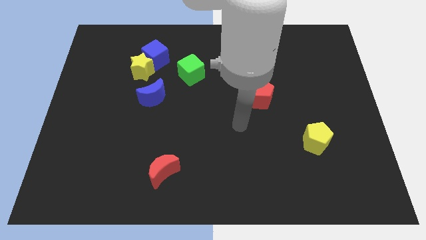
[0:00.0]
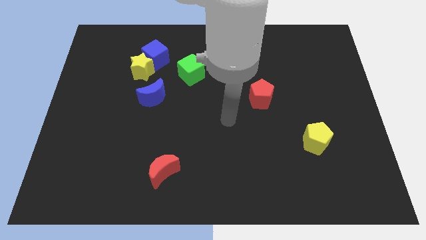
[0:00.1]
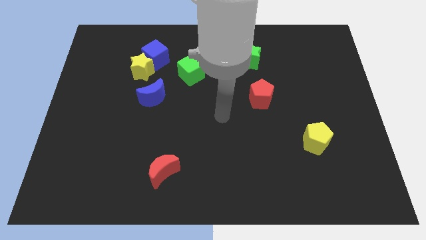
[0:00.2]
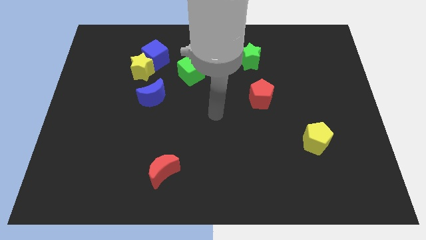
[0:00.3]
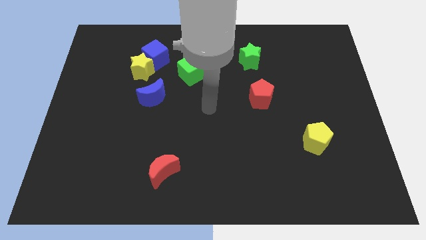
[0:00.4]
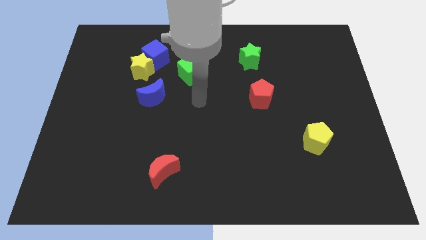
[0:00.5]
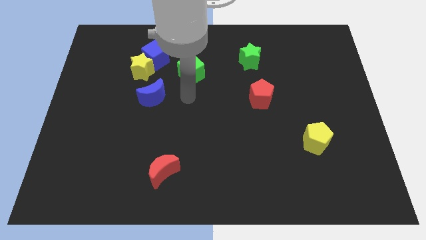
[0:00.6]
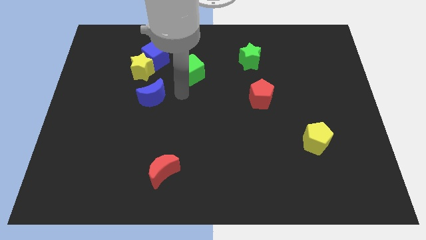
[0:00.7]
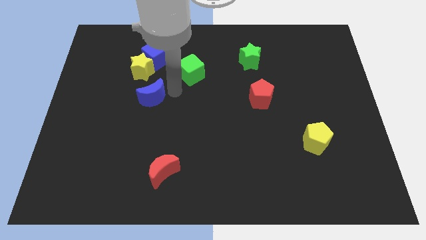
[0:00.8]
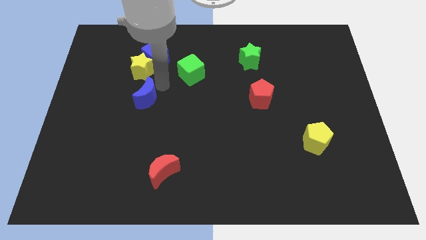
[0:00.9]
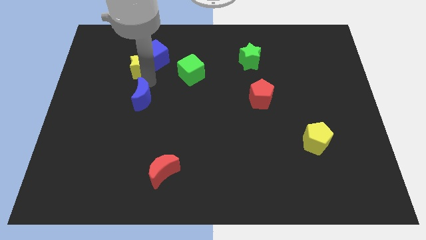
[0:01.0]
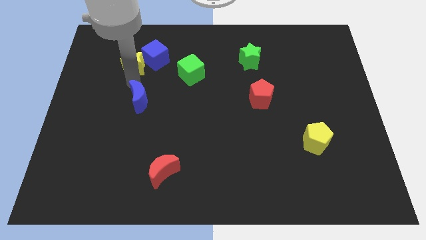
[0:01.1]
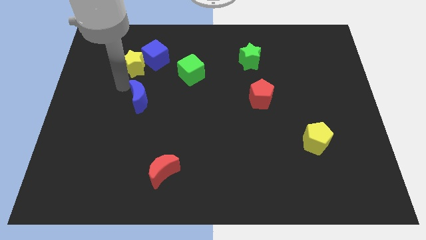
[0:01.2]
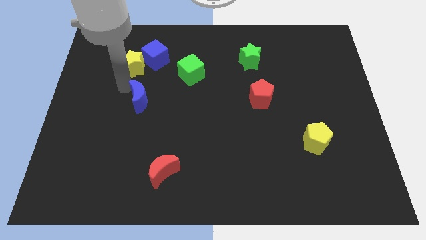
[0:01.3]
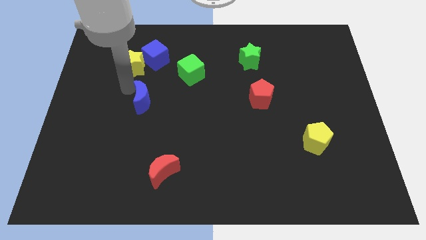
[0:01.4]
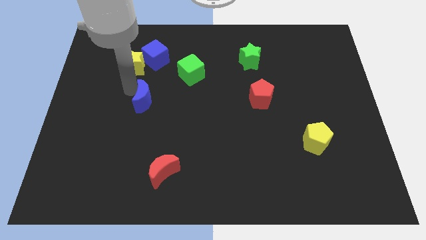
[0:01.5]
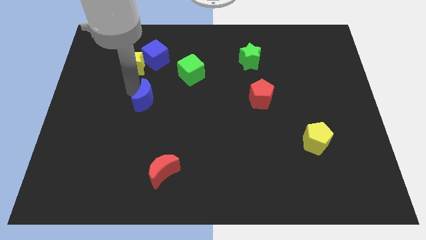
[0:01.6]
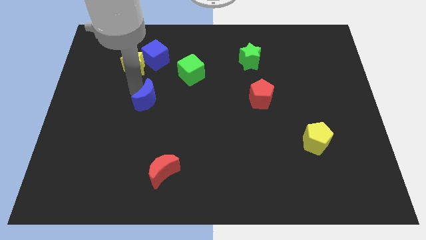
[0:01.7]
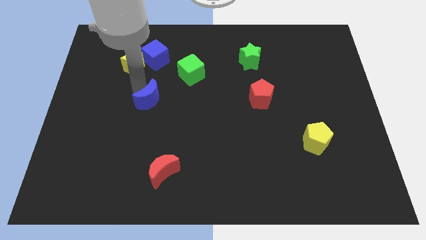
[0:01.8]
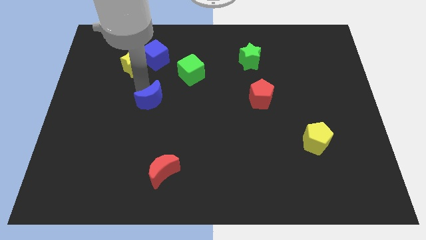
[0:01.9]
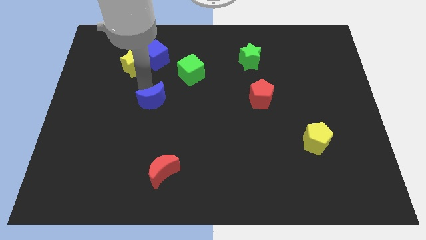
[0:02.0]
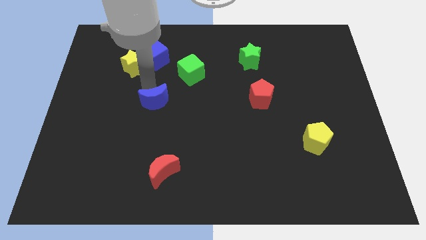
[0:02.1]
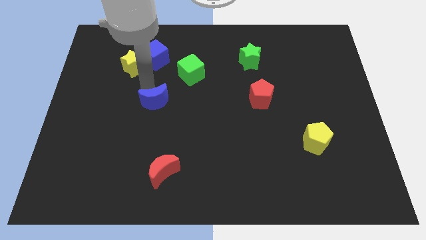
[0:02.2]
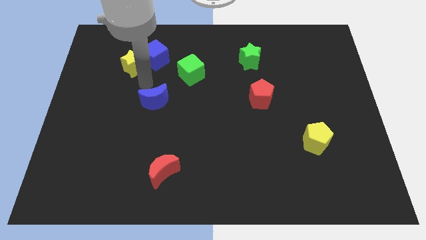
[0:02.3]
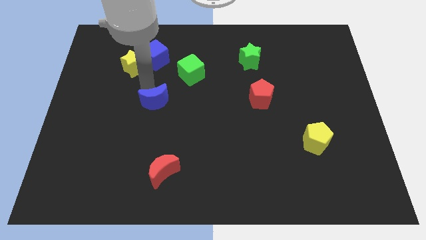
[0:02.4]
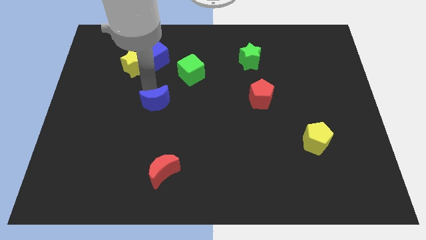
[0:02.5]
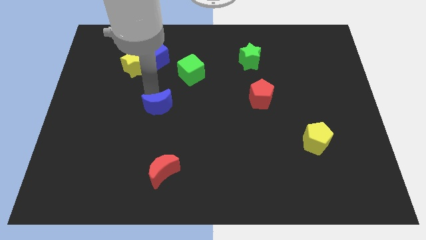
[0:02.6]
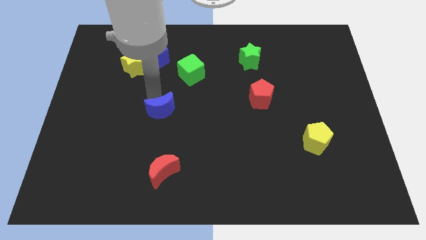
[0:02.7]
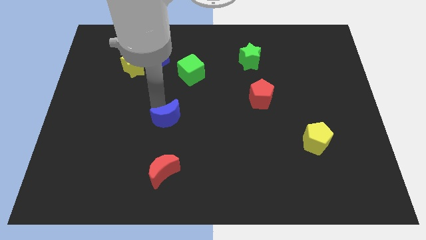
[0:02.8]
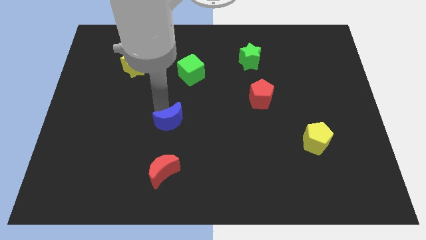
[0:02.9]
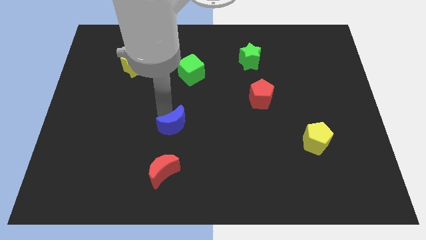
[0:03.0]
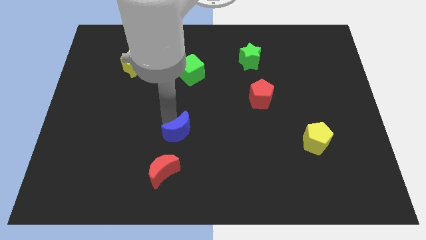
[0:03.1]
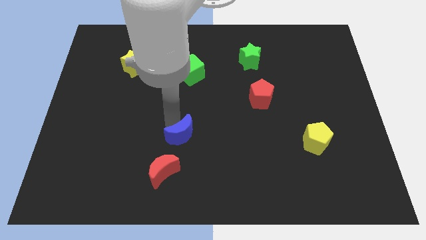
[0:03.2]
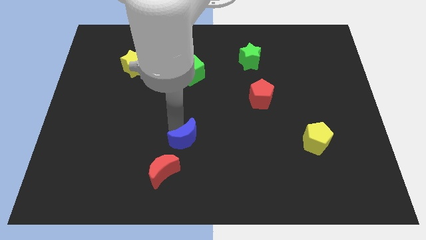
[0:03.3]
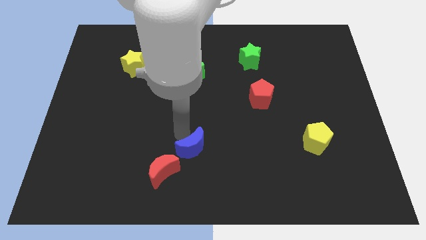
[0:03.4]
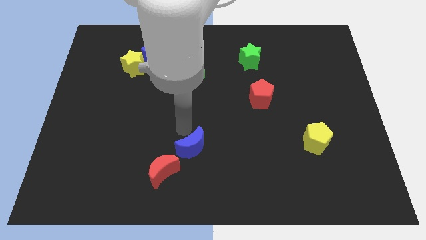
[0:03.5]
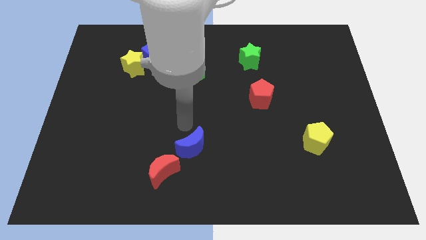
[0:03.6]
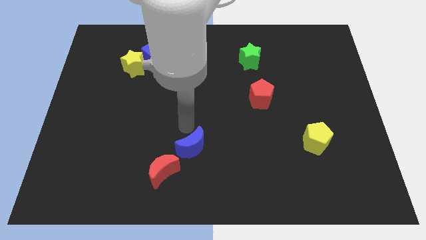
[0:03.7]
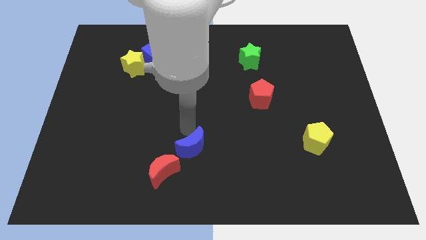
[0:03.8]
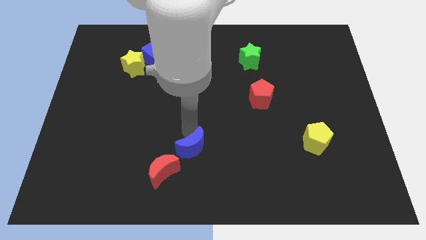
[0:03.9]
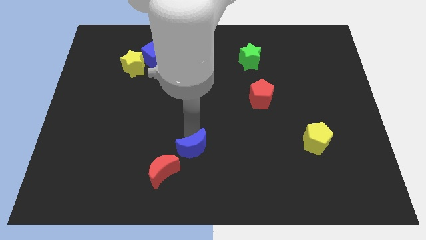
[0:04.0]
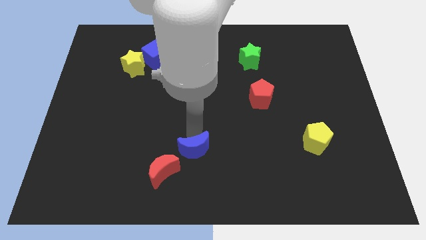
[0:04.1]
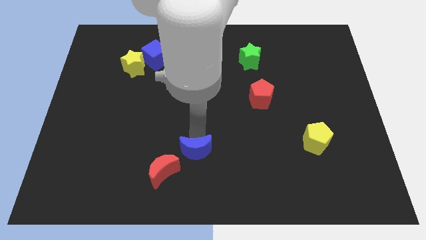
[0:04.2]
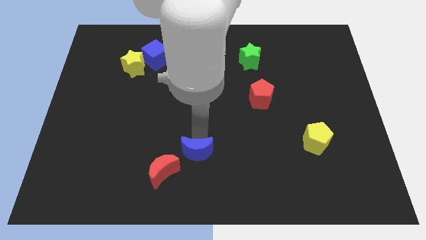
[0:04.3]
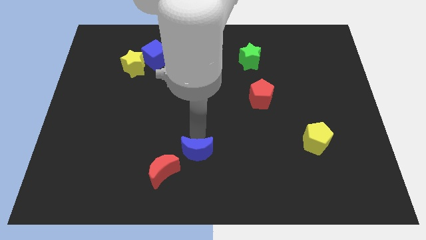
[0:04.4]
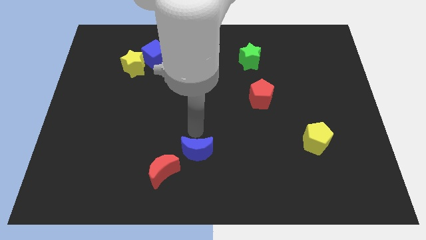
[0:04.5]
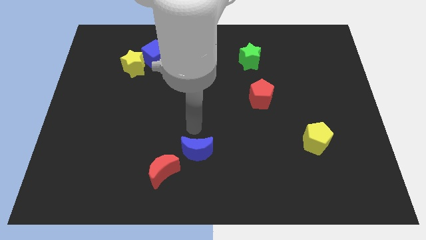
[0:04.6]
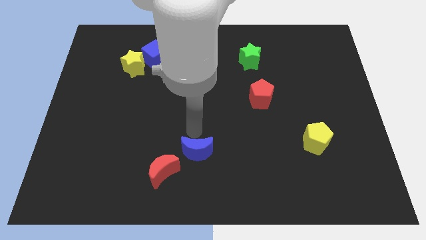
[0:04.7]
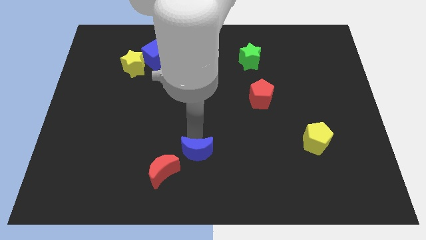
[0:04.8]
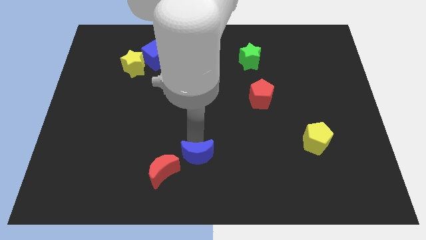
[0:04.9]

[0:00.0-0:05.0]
move the blue moon to the bottom

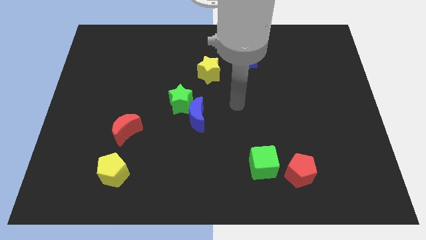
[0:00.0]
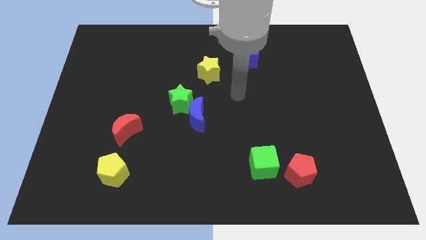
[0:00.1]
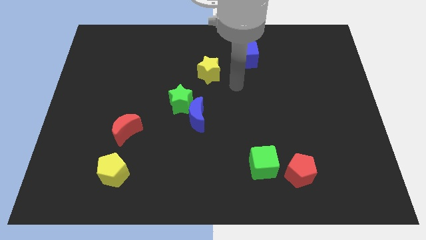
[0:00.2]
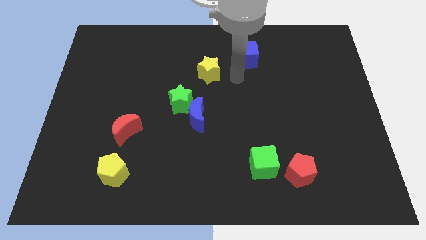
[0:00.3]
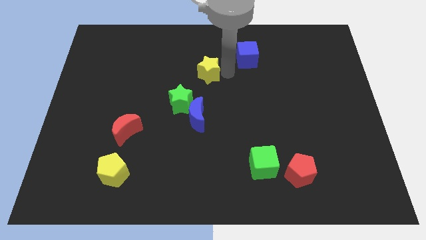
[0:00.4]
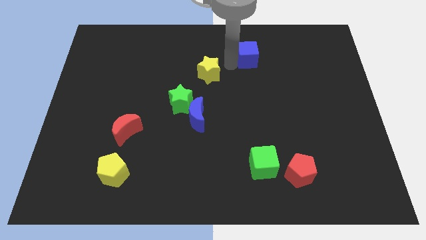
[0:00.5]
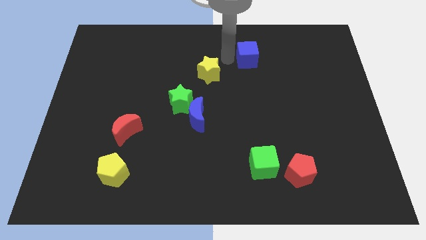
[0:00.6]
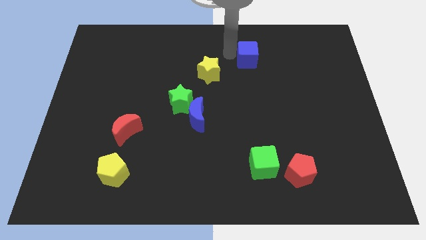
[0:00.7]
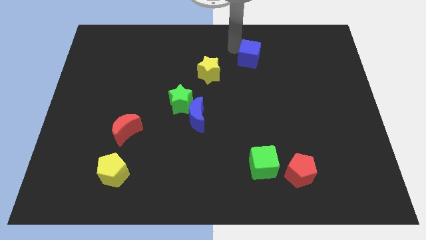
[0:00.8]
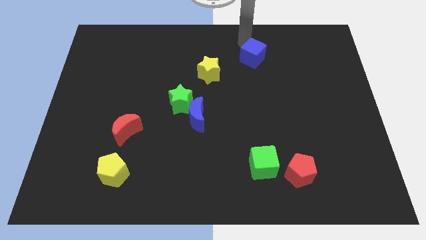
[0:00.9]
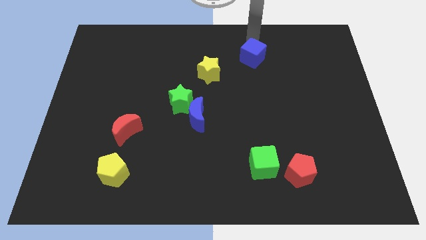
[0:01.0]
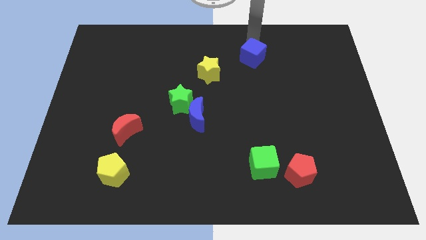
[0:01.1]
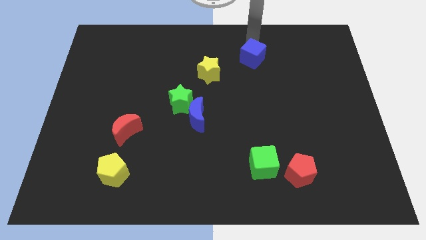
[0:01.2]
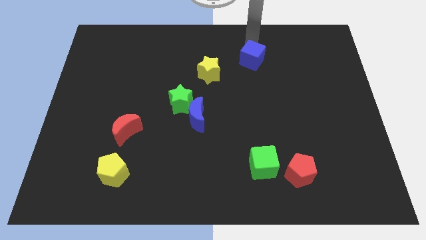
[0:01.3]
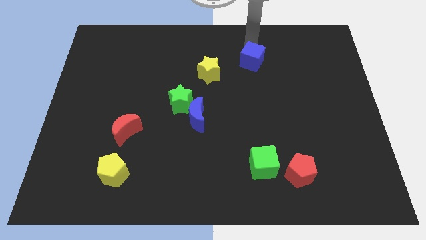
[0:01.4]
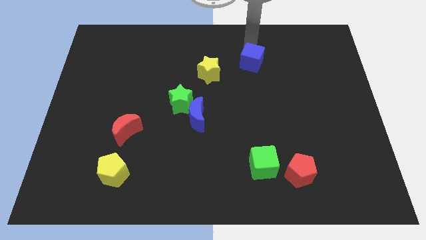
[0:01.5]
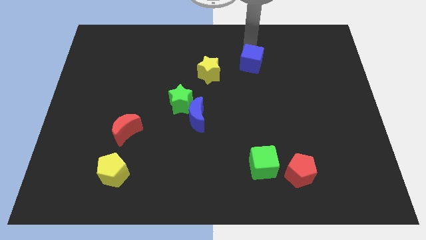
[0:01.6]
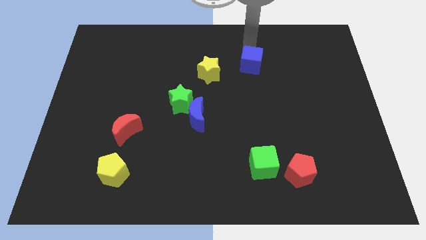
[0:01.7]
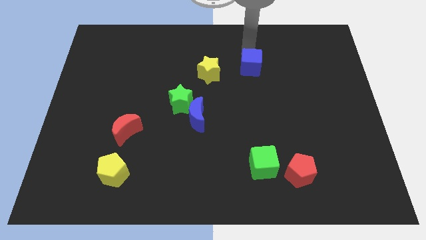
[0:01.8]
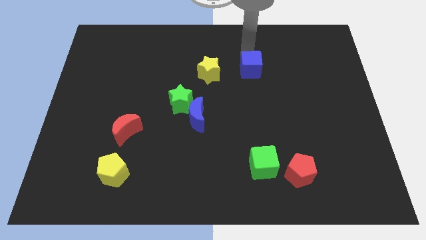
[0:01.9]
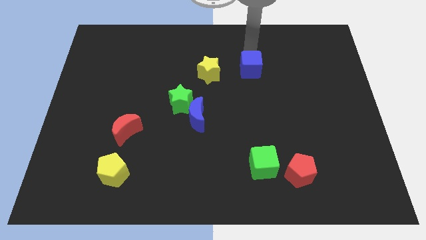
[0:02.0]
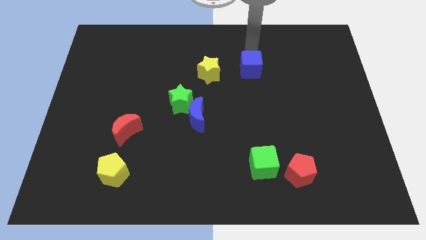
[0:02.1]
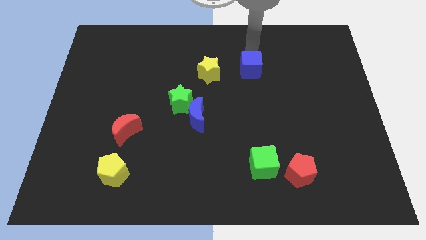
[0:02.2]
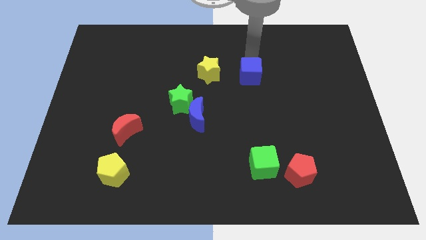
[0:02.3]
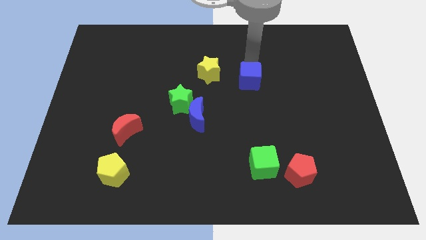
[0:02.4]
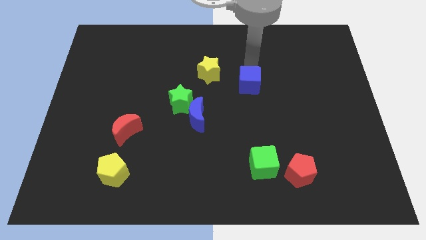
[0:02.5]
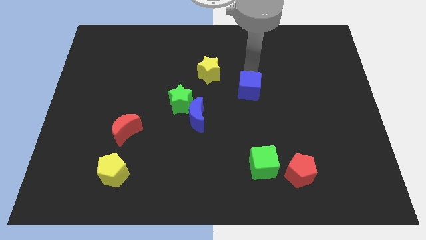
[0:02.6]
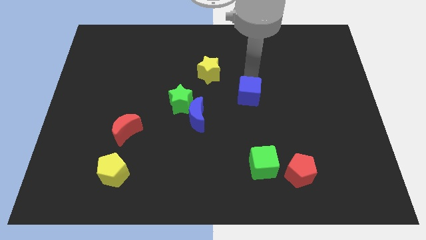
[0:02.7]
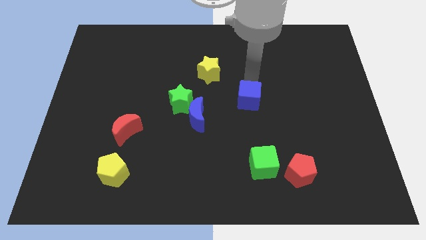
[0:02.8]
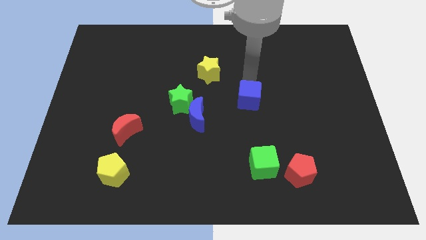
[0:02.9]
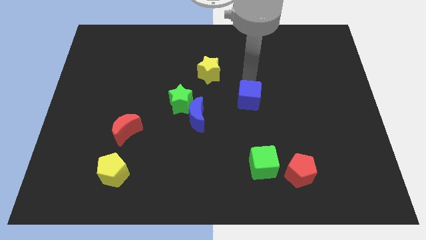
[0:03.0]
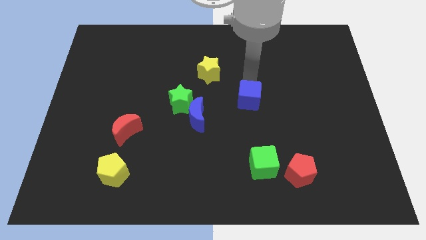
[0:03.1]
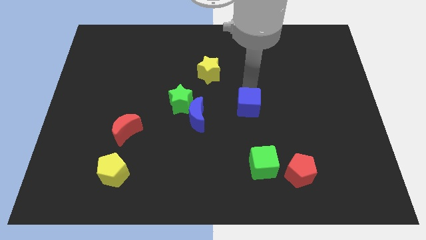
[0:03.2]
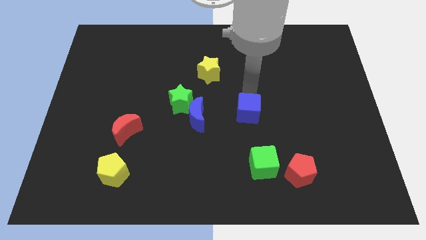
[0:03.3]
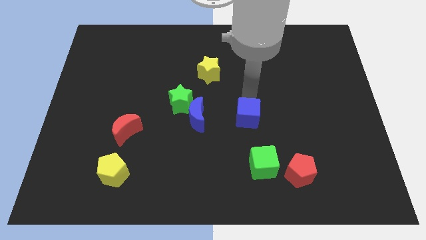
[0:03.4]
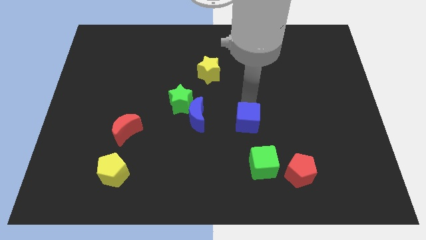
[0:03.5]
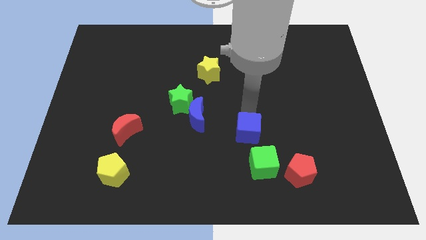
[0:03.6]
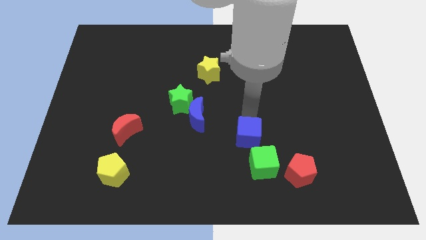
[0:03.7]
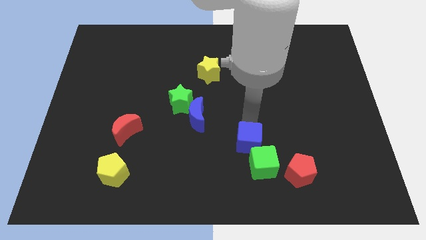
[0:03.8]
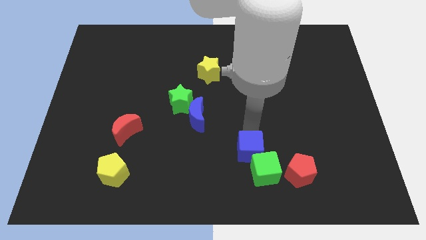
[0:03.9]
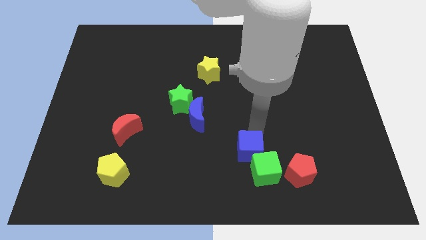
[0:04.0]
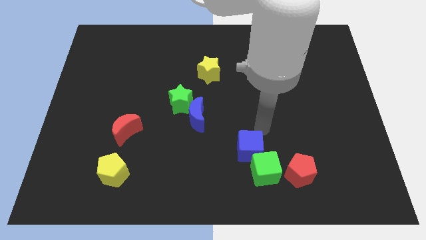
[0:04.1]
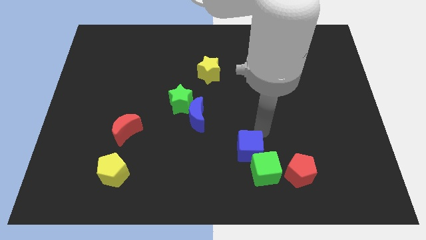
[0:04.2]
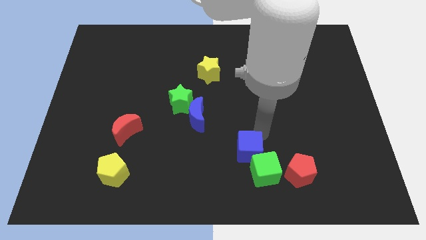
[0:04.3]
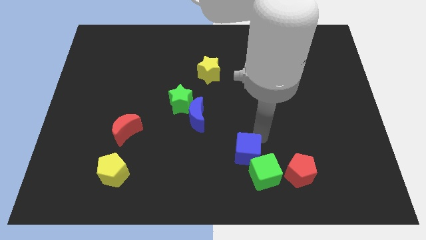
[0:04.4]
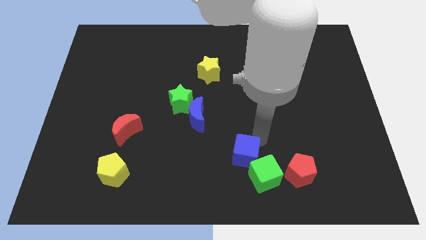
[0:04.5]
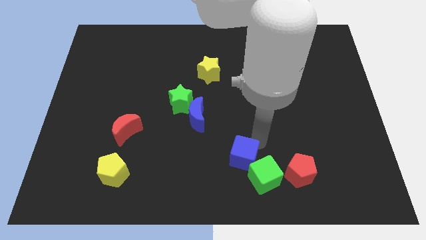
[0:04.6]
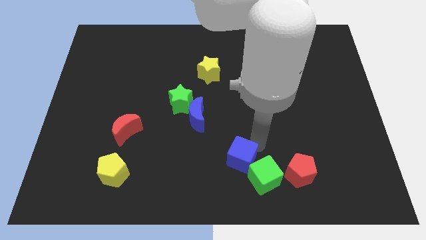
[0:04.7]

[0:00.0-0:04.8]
put the blue cube to the bottom side
